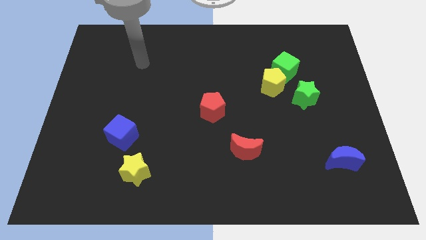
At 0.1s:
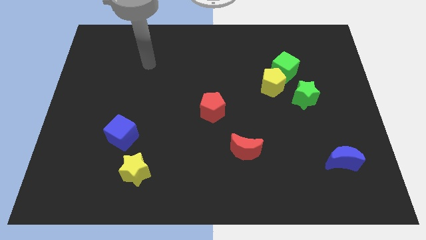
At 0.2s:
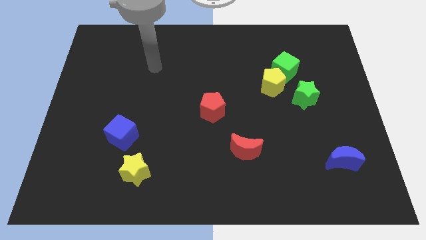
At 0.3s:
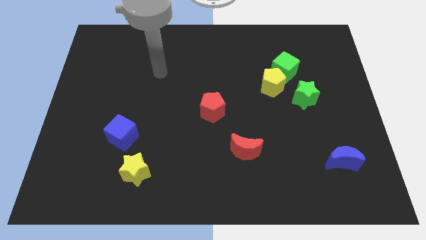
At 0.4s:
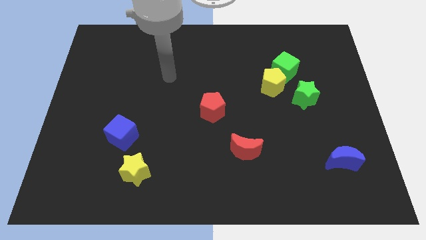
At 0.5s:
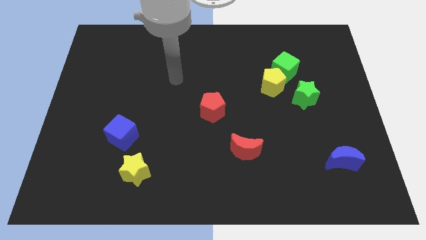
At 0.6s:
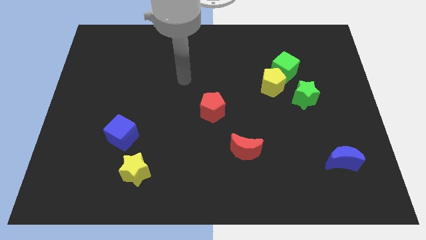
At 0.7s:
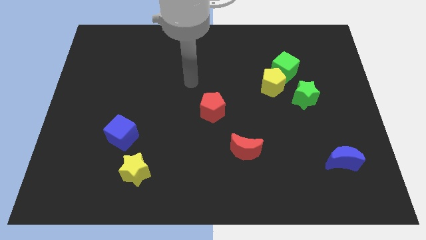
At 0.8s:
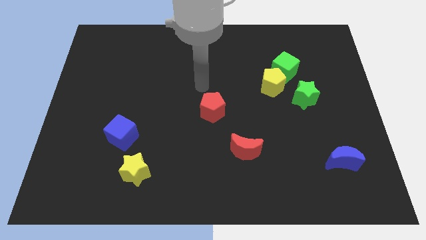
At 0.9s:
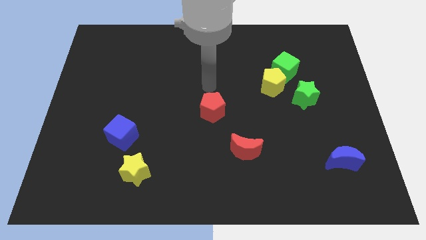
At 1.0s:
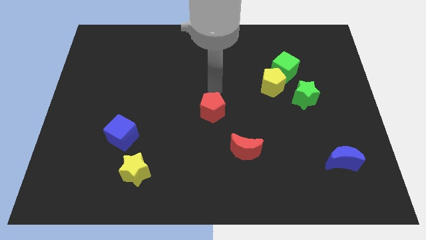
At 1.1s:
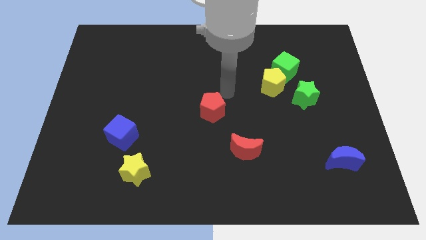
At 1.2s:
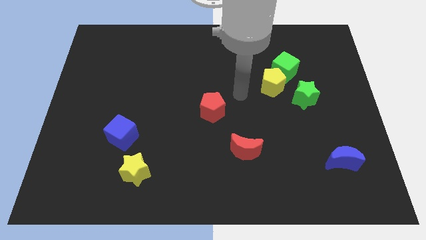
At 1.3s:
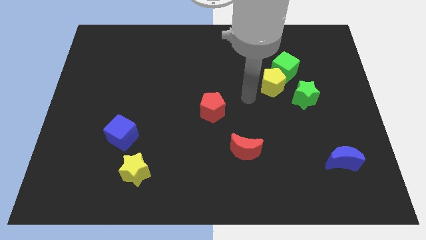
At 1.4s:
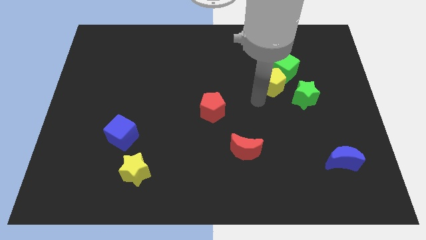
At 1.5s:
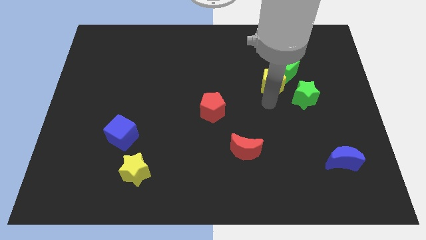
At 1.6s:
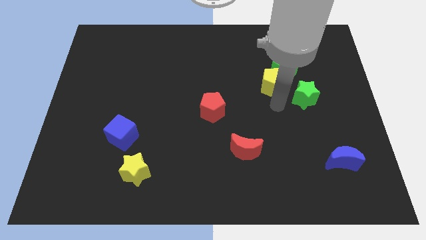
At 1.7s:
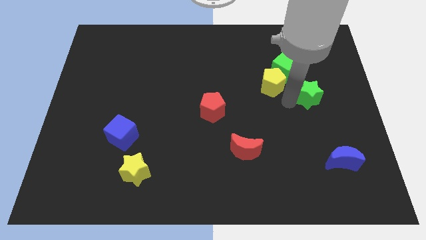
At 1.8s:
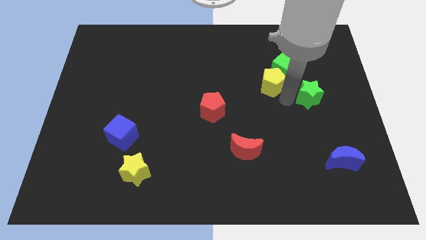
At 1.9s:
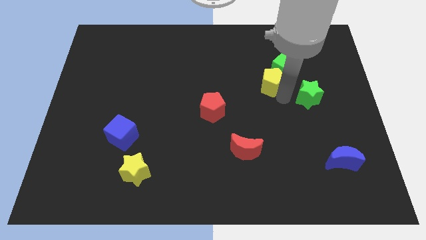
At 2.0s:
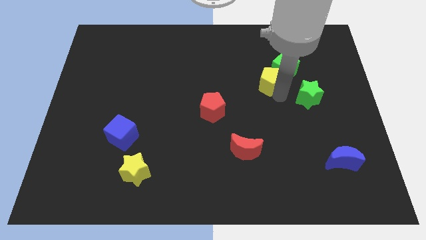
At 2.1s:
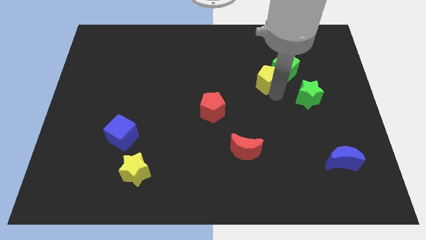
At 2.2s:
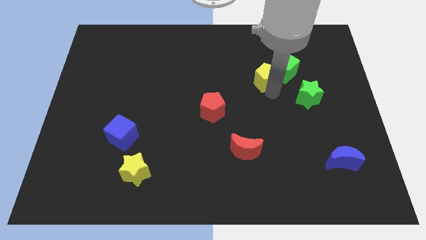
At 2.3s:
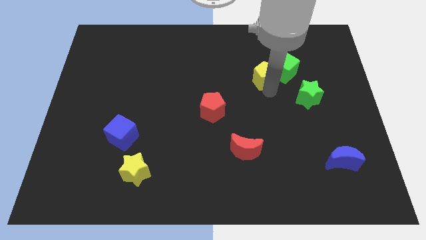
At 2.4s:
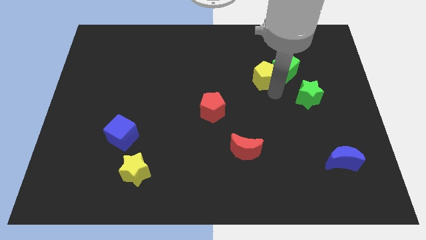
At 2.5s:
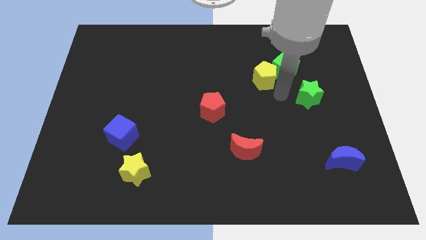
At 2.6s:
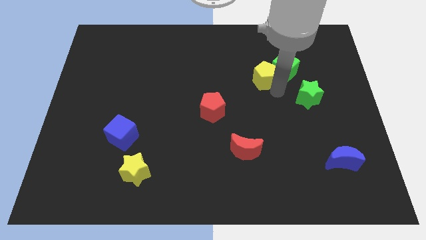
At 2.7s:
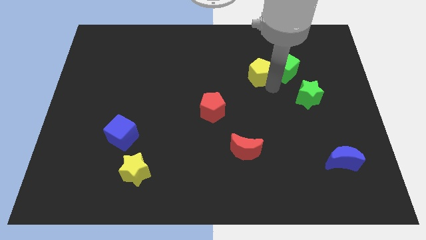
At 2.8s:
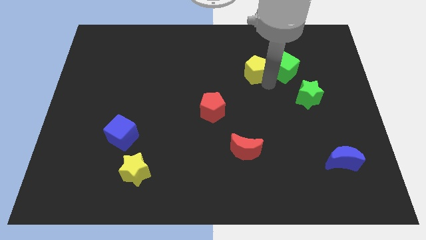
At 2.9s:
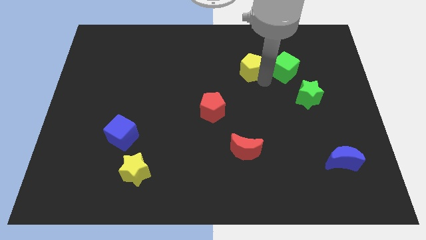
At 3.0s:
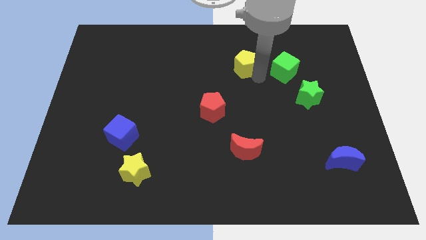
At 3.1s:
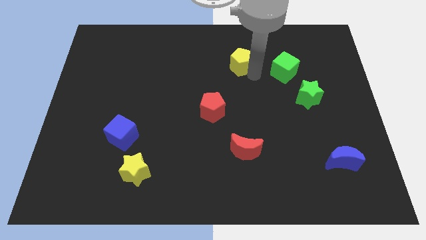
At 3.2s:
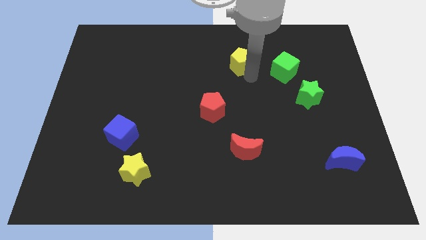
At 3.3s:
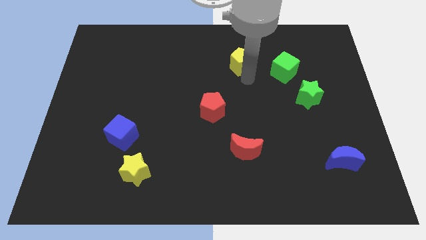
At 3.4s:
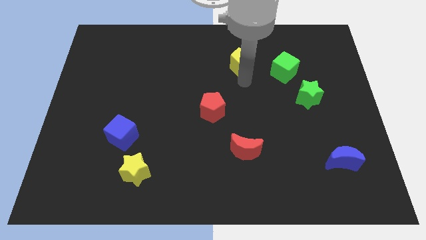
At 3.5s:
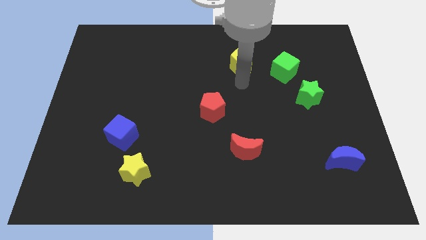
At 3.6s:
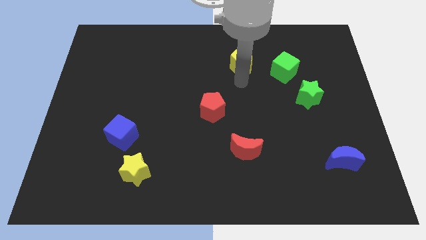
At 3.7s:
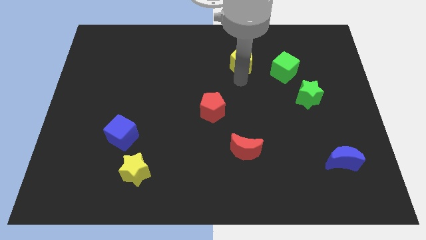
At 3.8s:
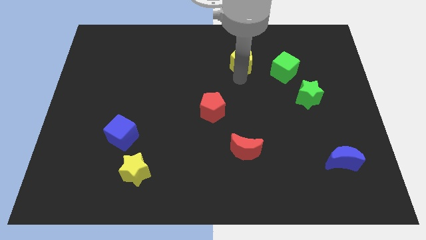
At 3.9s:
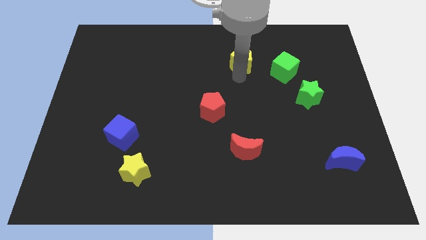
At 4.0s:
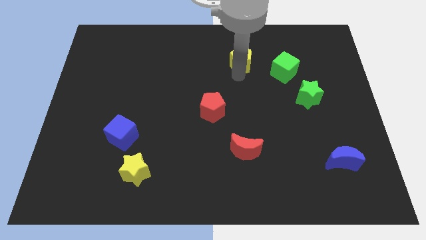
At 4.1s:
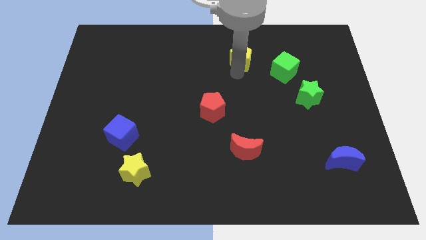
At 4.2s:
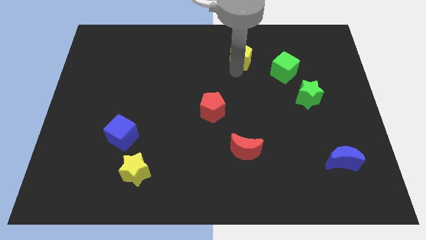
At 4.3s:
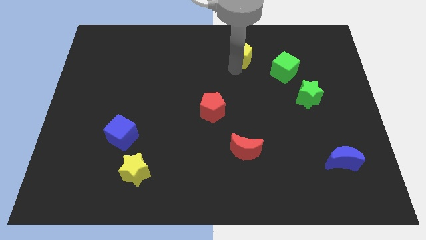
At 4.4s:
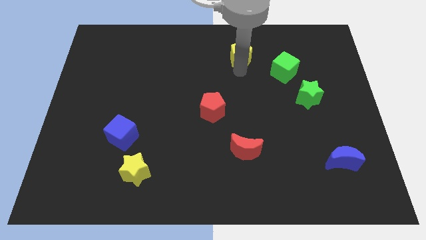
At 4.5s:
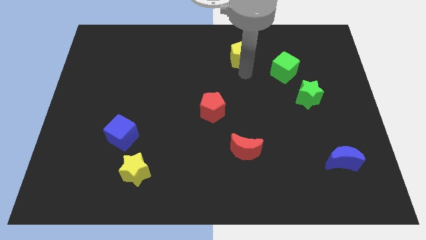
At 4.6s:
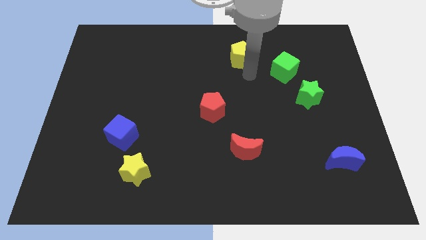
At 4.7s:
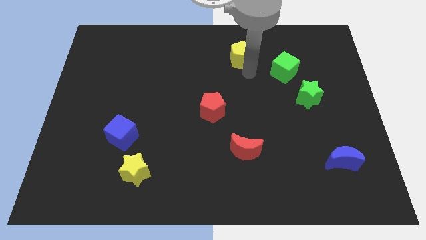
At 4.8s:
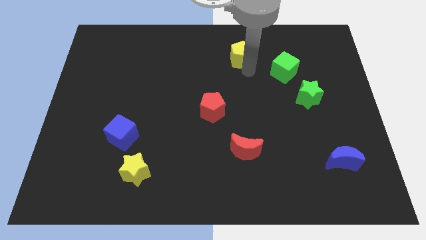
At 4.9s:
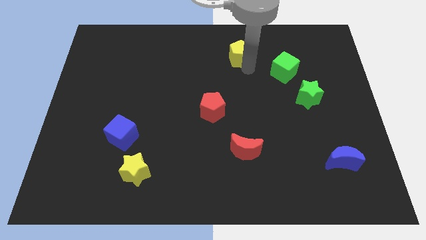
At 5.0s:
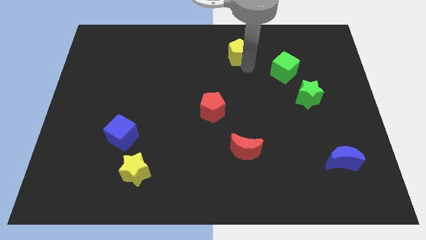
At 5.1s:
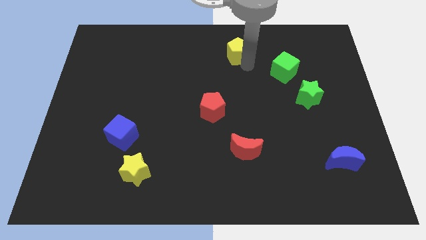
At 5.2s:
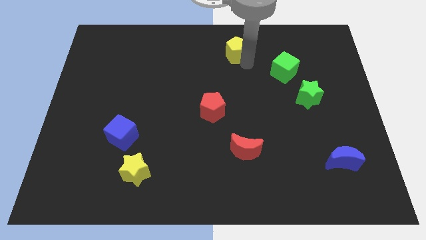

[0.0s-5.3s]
push the yellow pentagon to the top

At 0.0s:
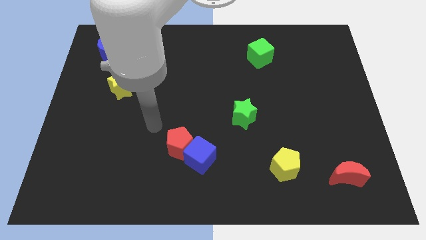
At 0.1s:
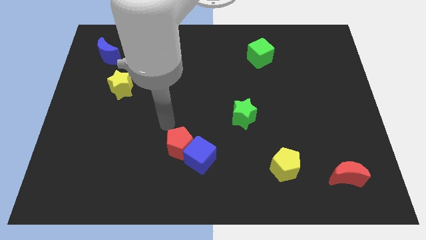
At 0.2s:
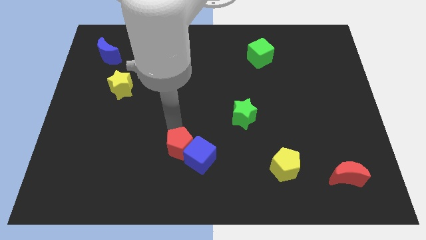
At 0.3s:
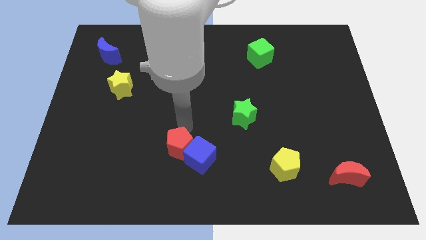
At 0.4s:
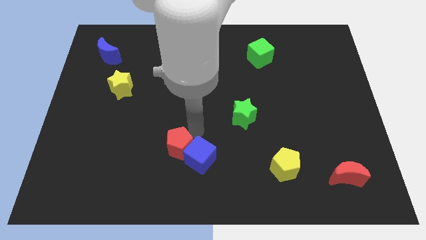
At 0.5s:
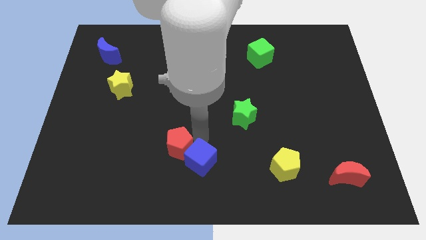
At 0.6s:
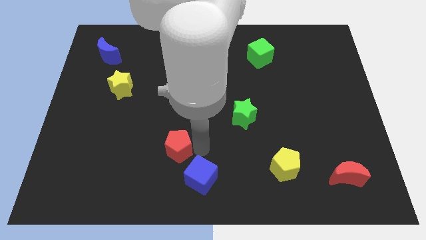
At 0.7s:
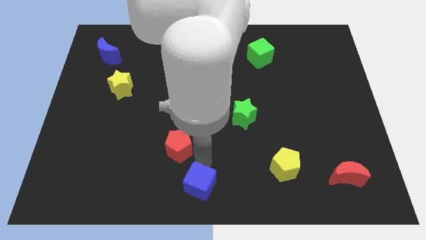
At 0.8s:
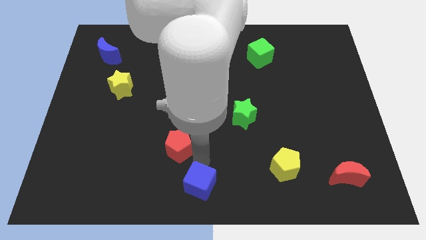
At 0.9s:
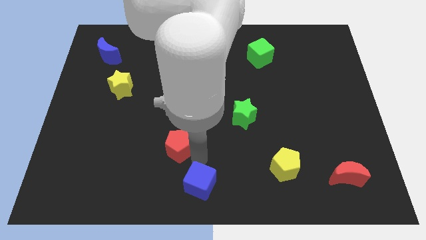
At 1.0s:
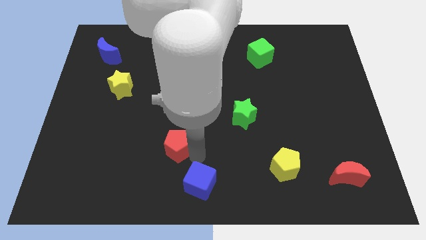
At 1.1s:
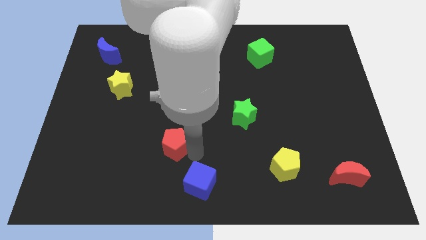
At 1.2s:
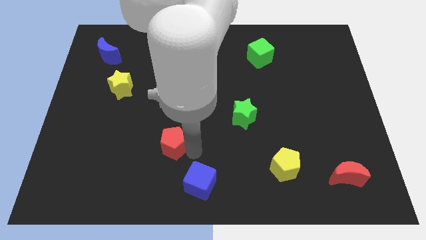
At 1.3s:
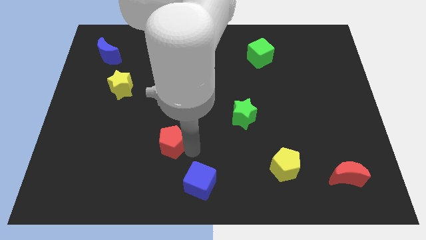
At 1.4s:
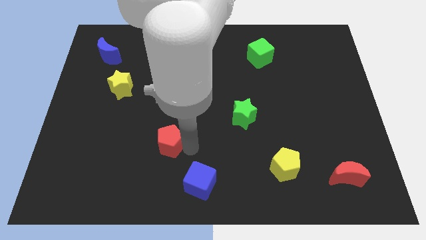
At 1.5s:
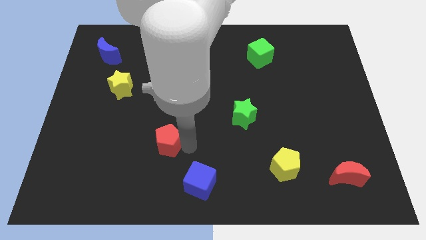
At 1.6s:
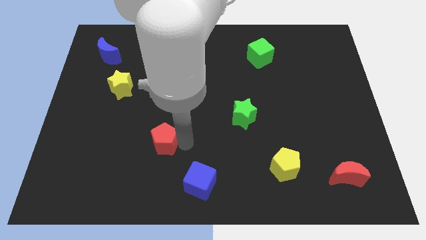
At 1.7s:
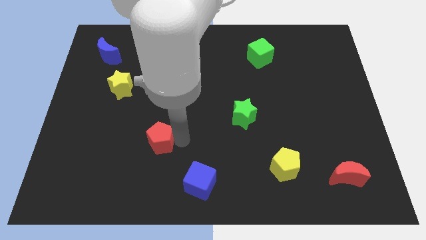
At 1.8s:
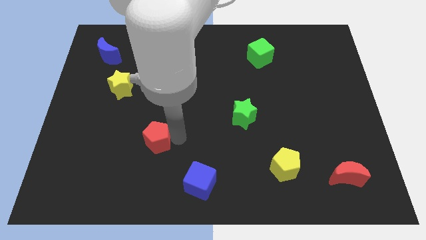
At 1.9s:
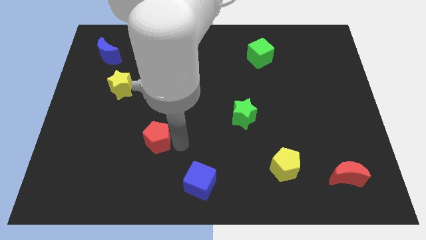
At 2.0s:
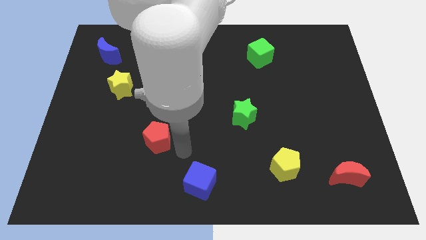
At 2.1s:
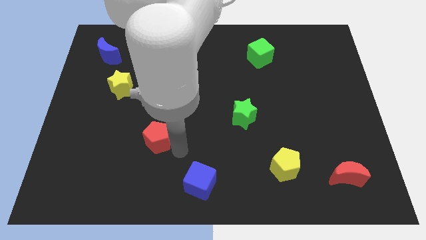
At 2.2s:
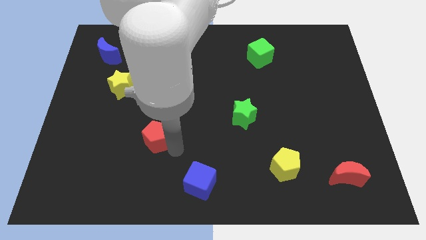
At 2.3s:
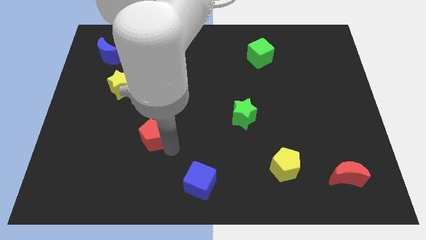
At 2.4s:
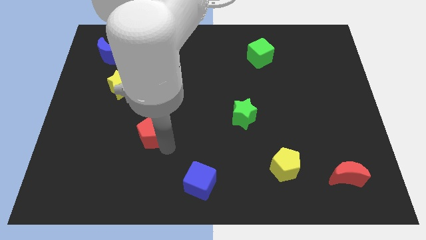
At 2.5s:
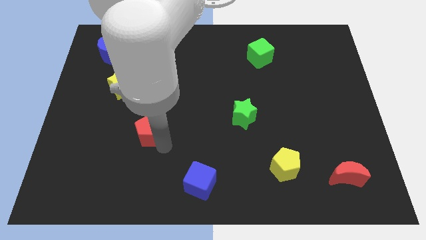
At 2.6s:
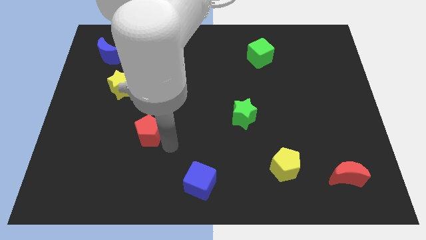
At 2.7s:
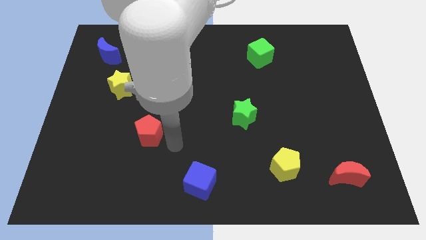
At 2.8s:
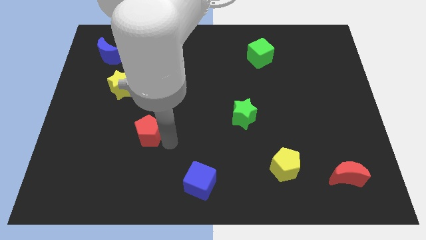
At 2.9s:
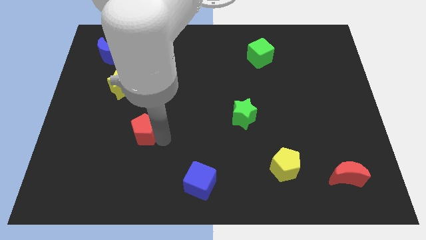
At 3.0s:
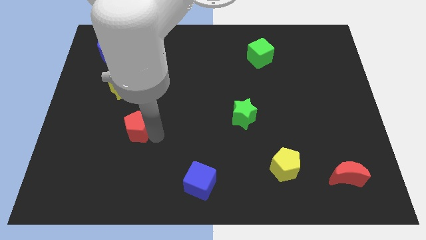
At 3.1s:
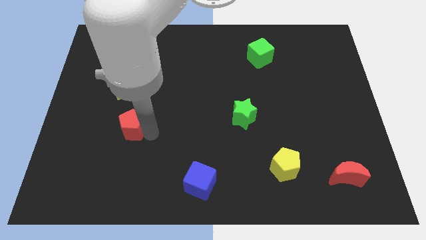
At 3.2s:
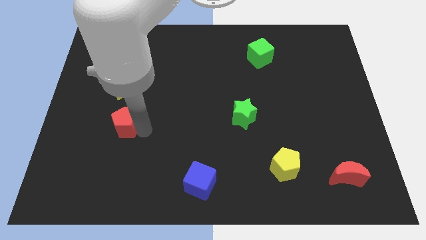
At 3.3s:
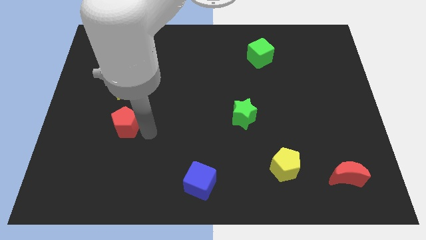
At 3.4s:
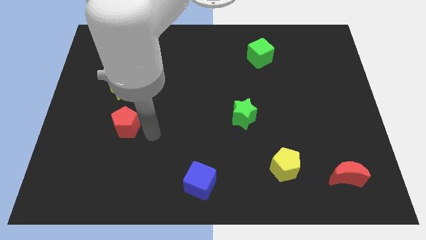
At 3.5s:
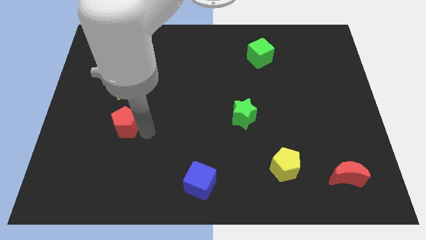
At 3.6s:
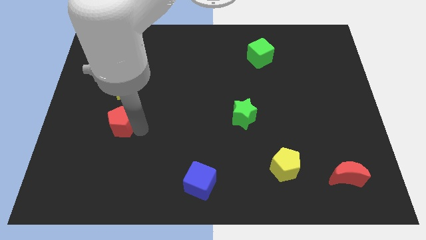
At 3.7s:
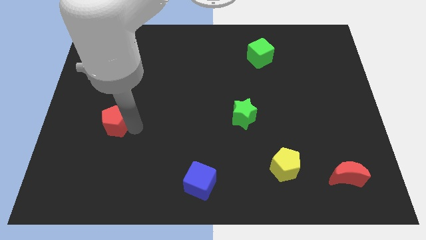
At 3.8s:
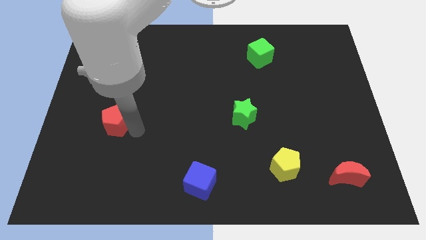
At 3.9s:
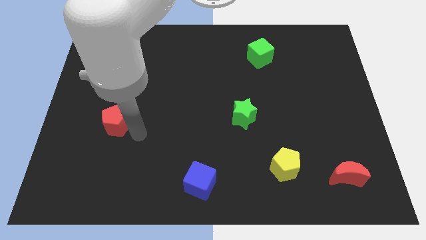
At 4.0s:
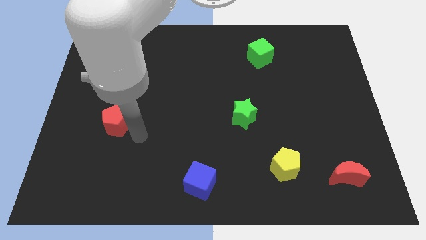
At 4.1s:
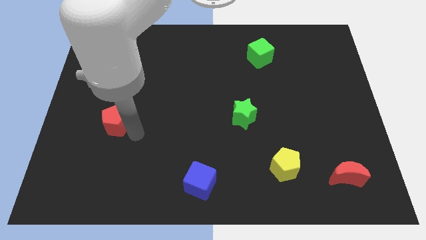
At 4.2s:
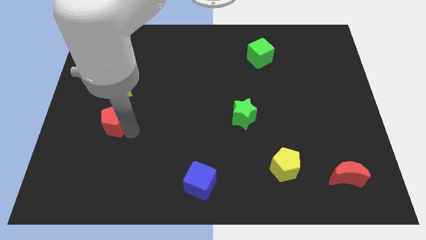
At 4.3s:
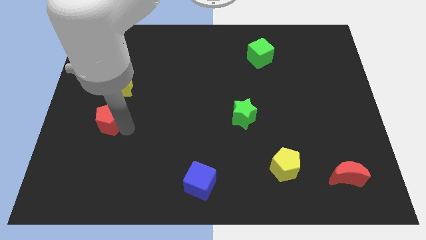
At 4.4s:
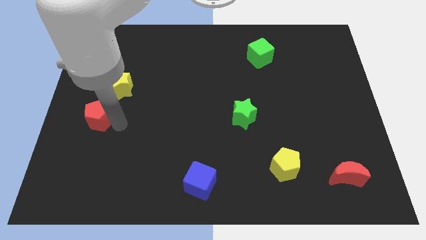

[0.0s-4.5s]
slide the red pentagon to the center left
